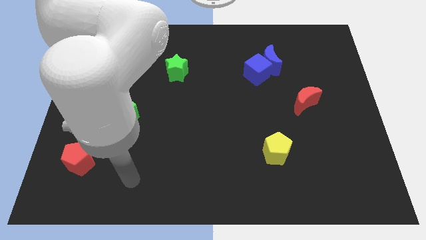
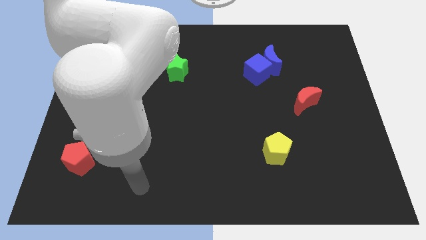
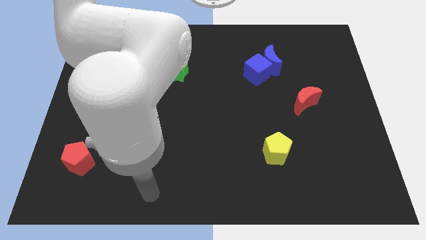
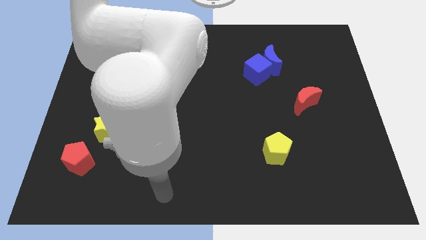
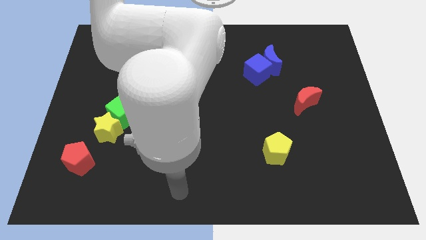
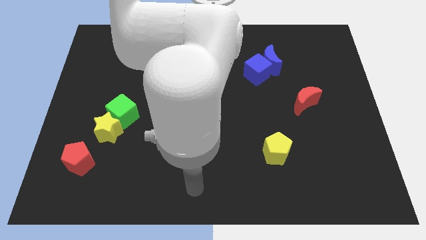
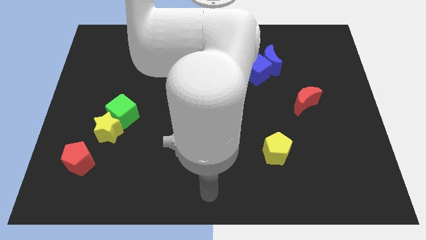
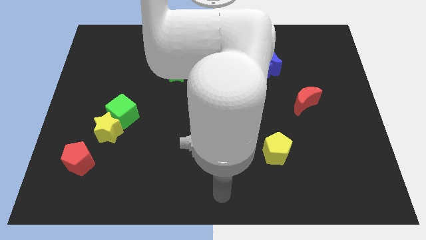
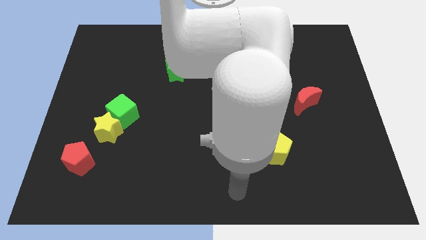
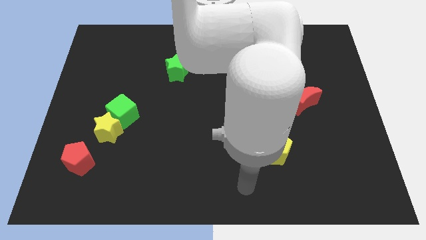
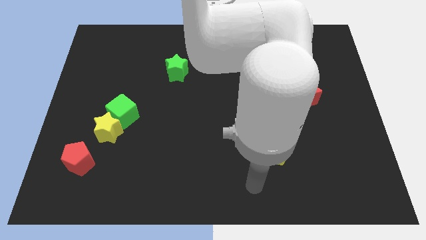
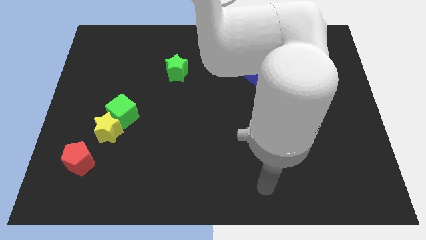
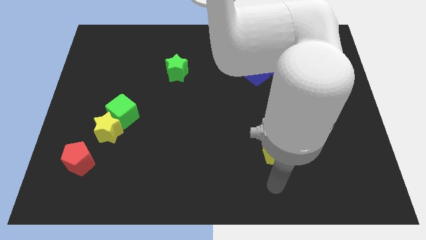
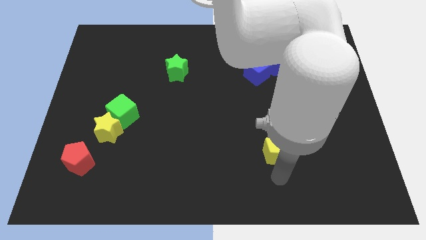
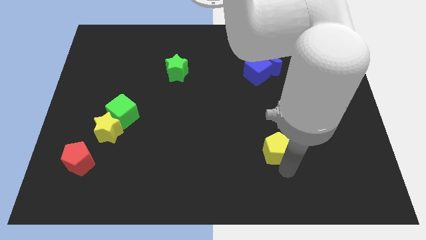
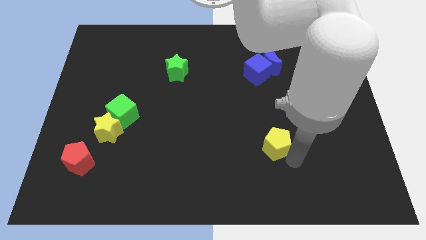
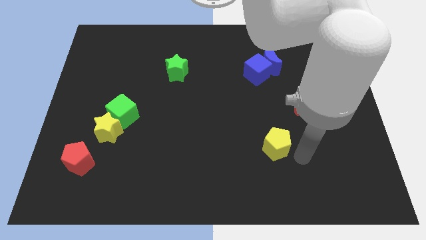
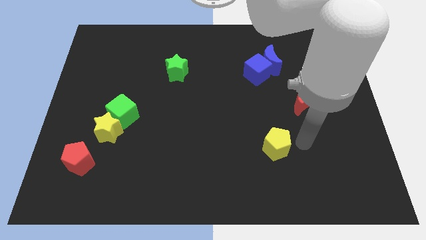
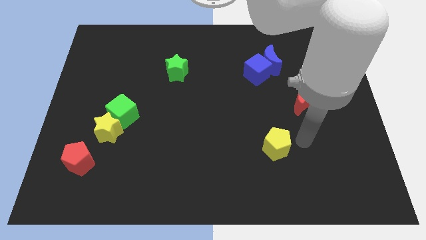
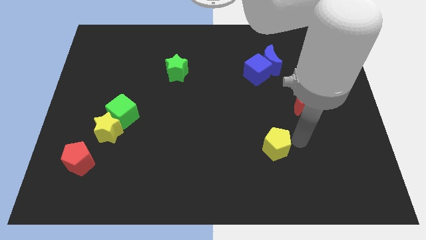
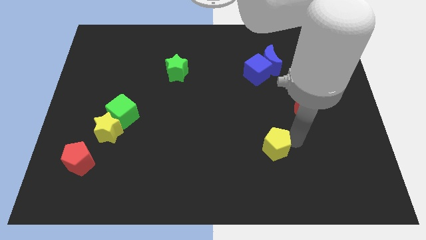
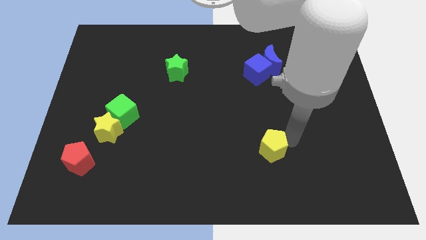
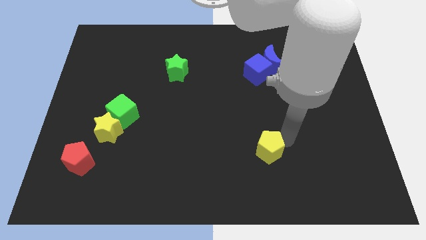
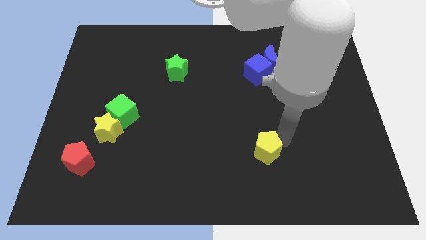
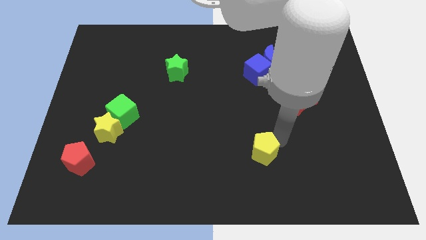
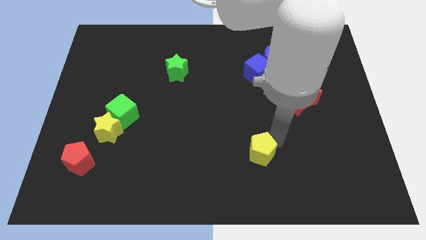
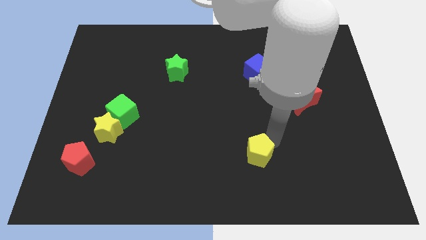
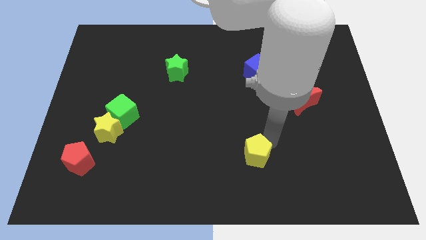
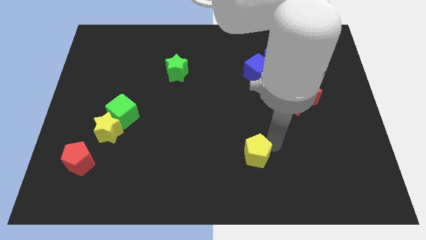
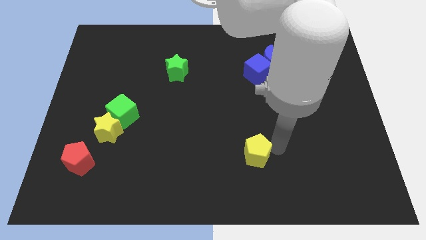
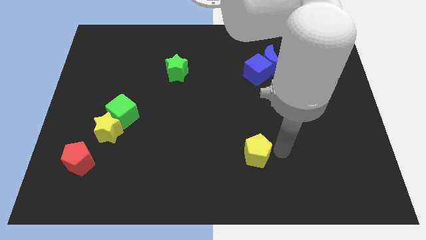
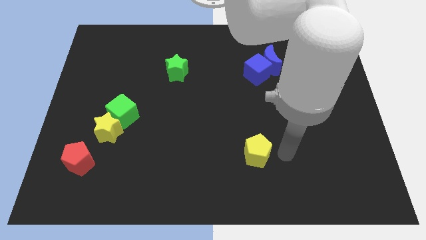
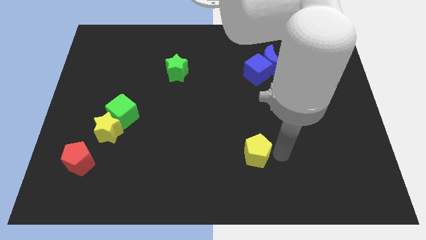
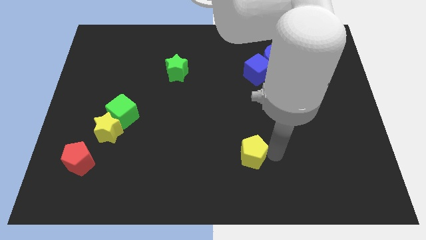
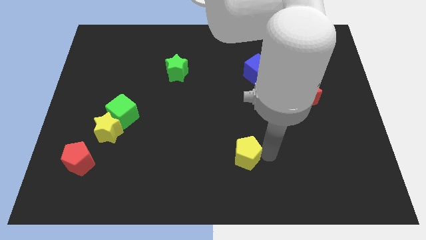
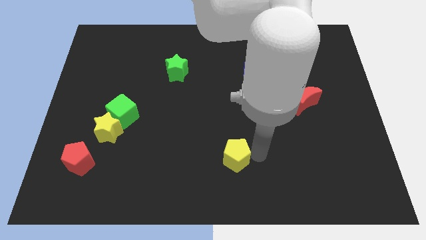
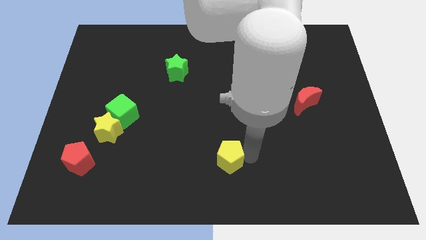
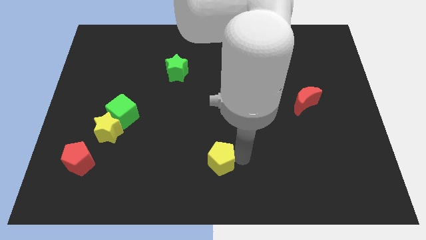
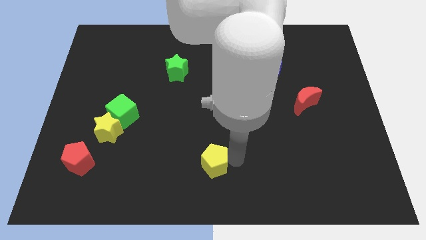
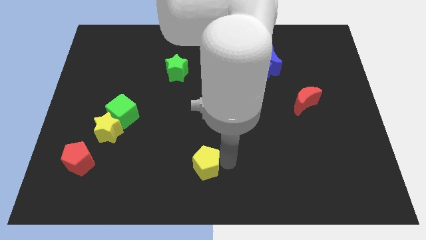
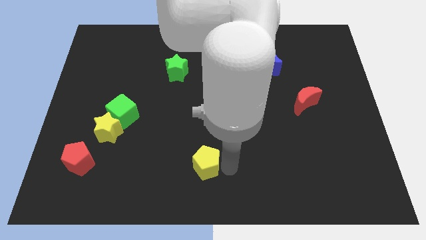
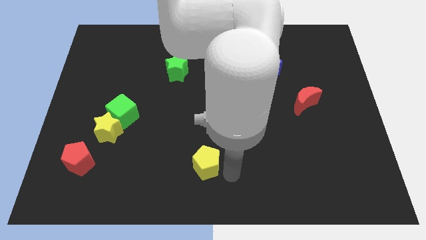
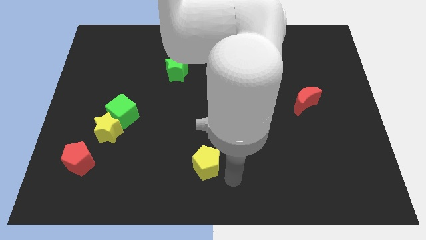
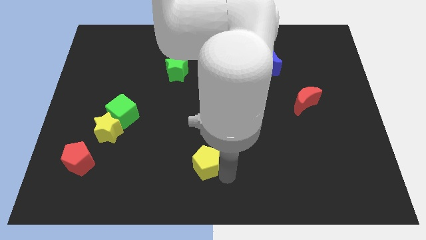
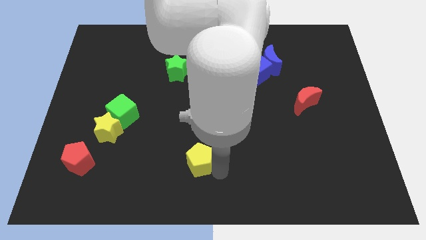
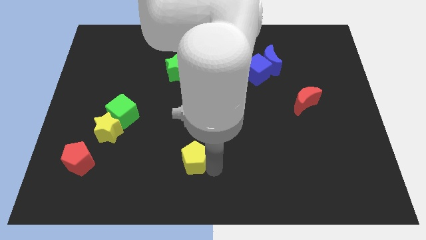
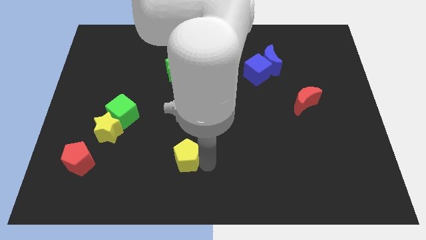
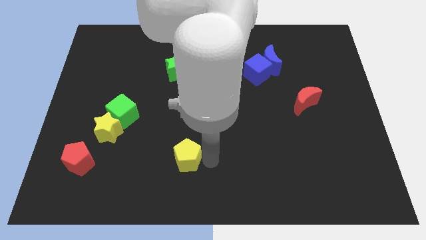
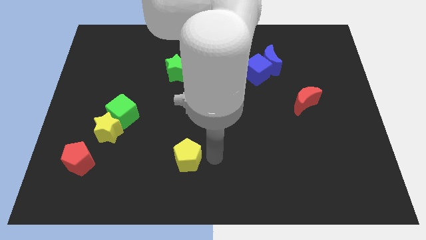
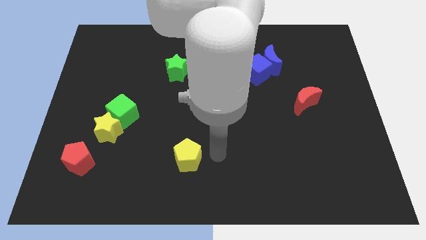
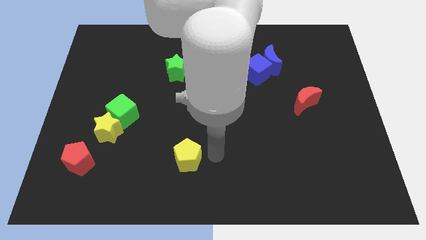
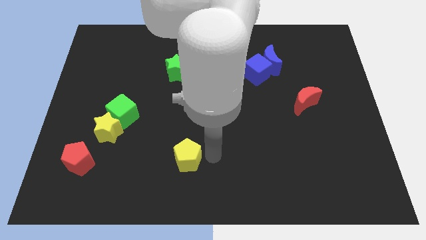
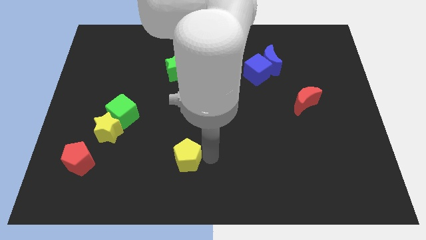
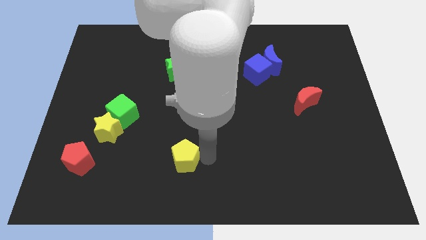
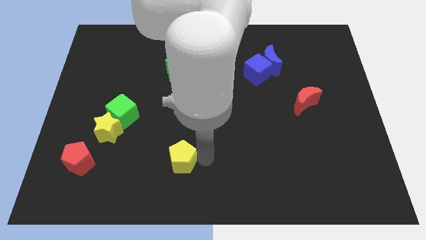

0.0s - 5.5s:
slide the yellow pentagon left

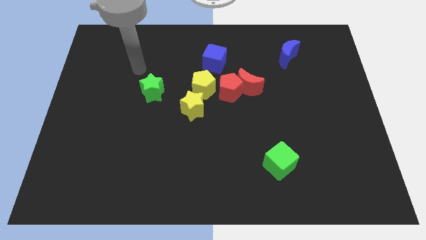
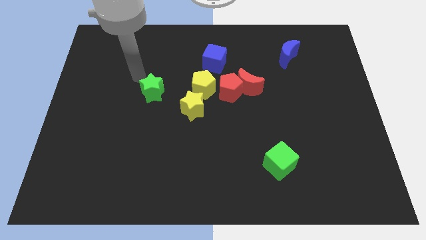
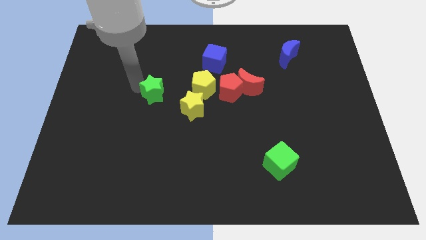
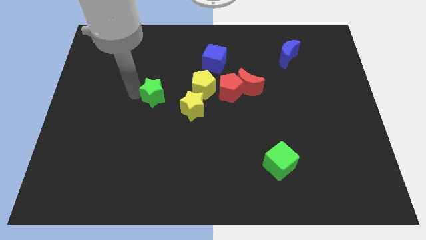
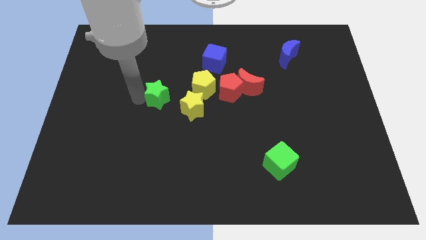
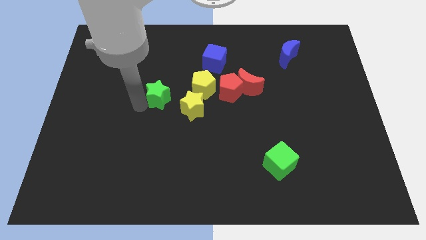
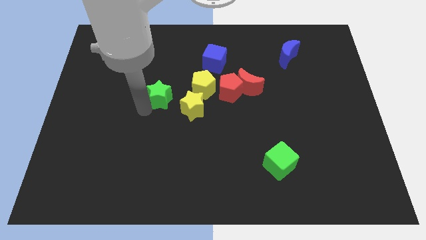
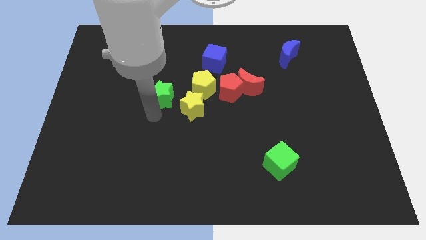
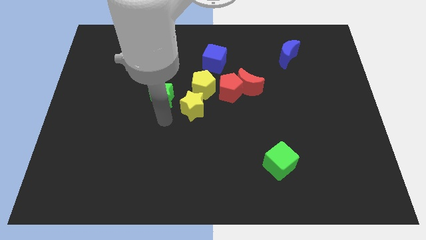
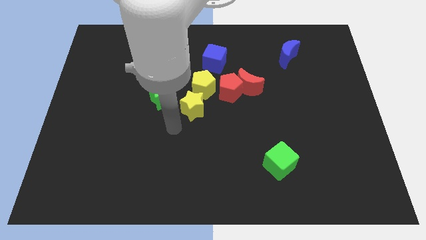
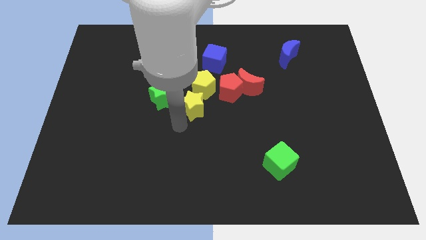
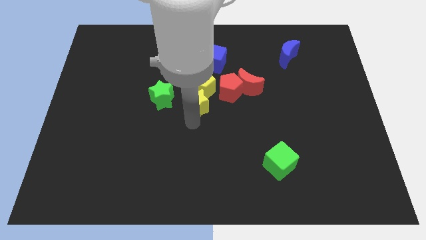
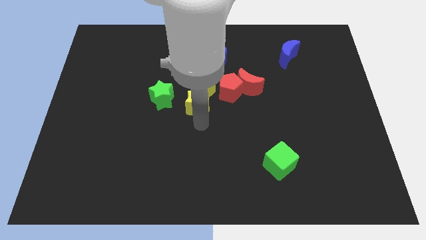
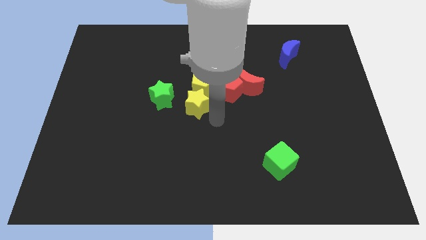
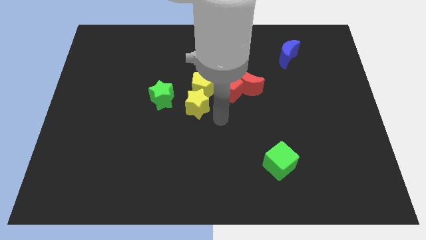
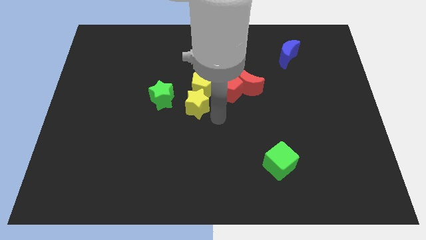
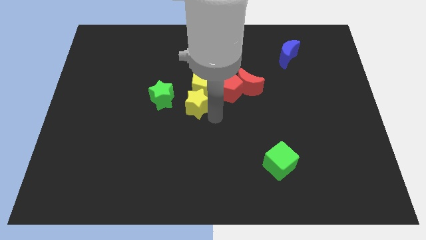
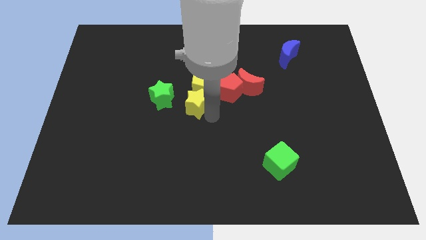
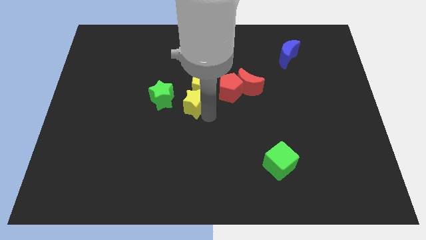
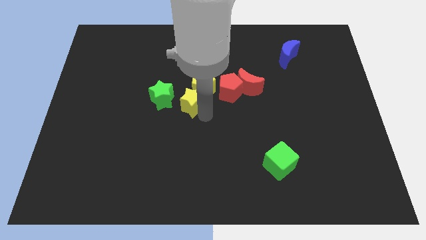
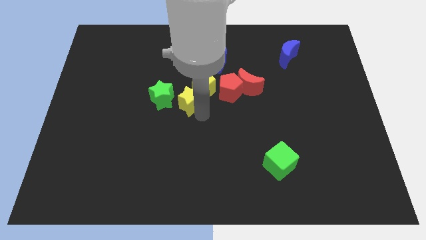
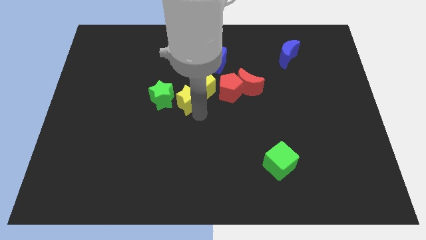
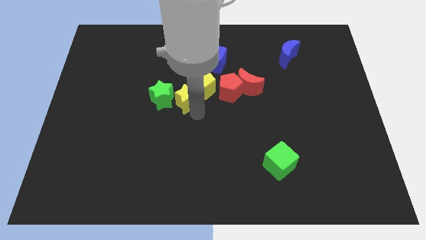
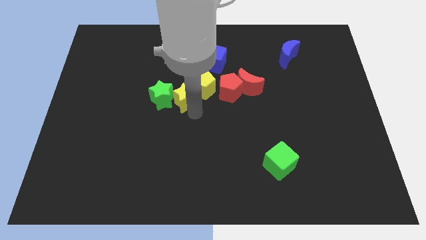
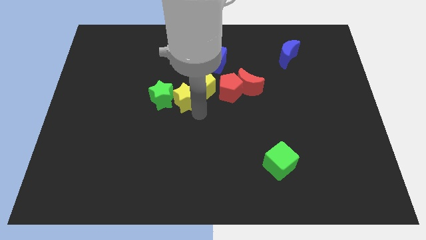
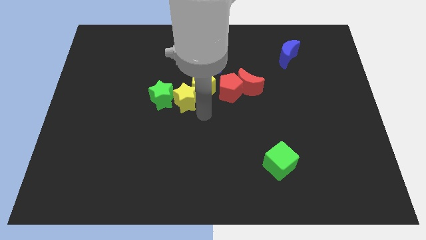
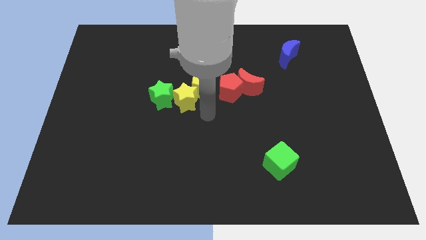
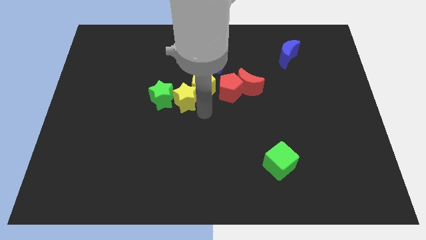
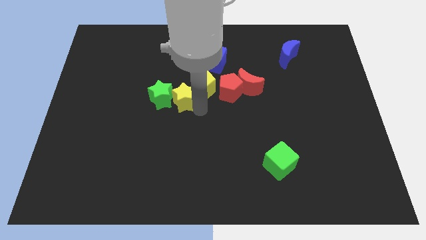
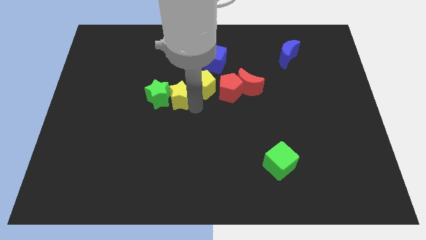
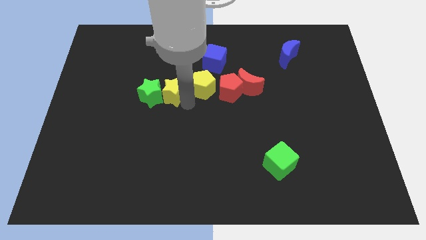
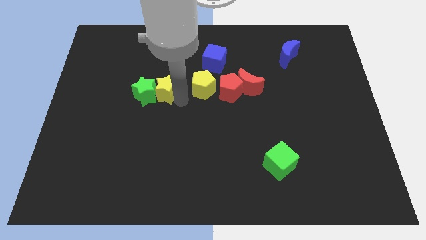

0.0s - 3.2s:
slide the yellow star a little up and then to the left
